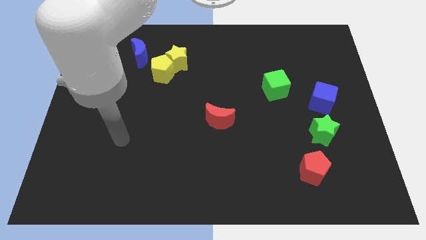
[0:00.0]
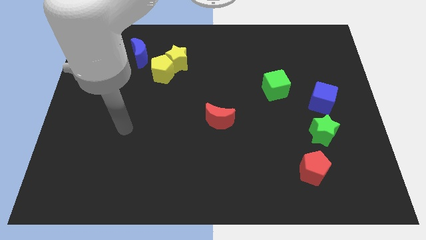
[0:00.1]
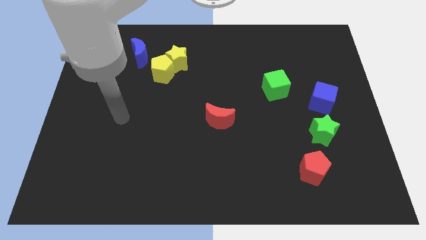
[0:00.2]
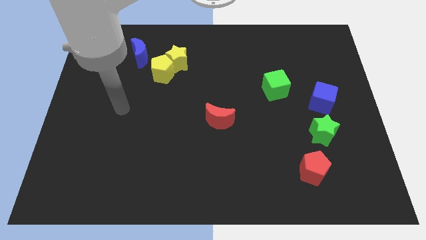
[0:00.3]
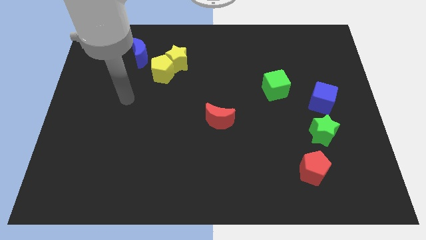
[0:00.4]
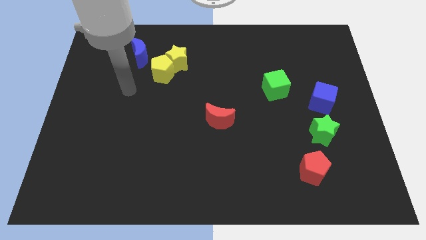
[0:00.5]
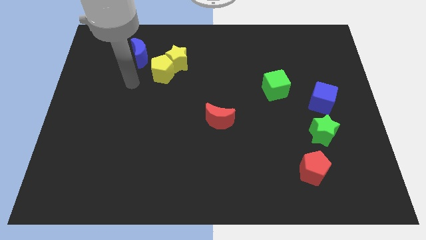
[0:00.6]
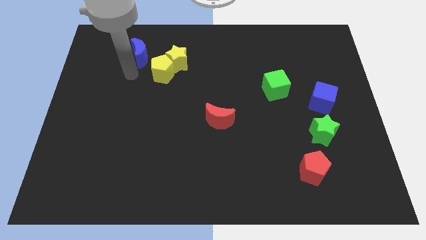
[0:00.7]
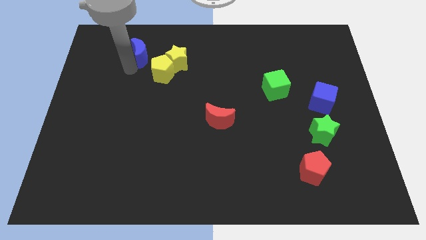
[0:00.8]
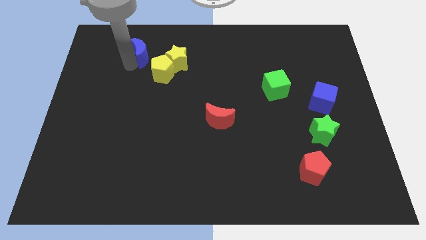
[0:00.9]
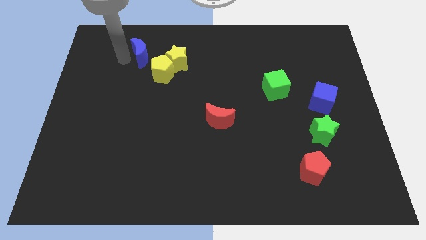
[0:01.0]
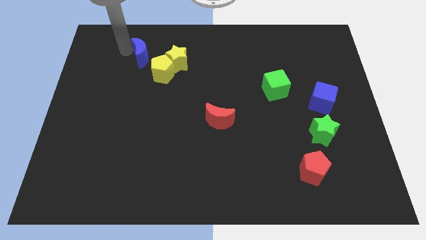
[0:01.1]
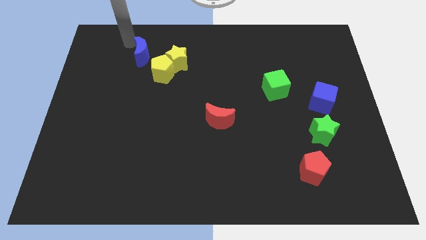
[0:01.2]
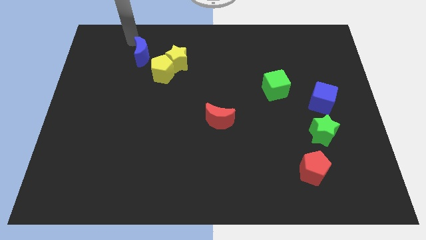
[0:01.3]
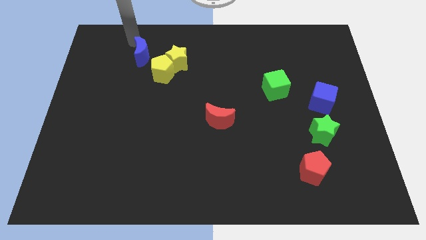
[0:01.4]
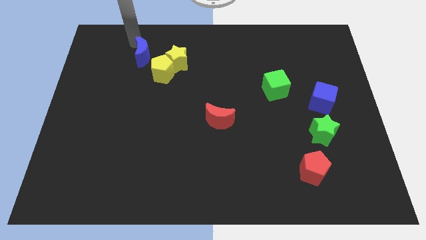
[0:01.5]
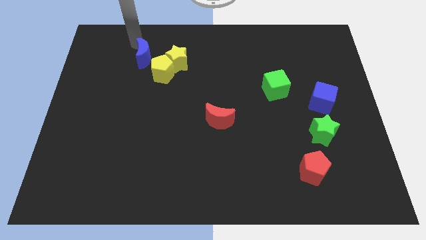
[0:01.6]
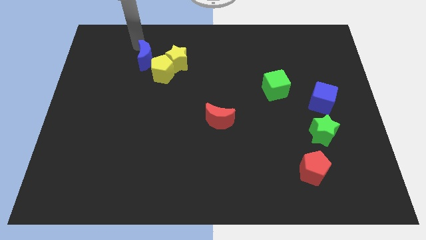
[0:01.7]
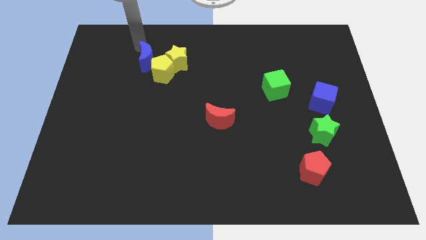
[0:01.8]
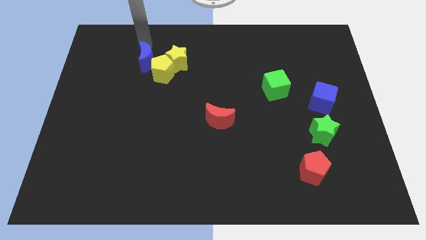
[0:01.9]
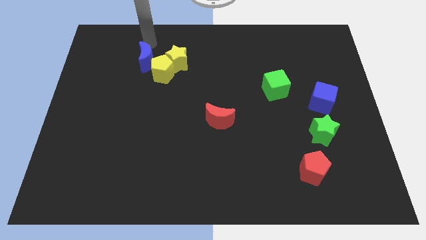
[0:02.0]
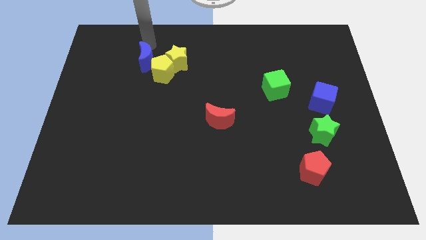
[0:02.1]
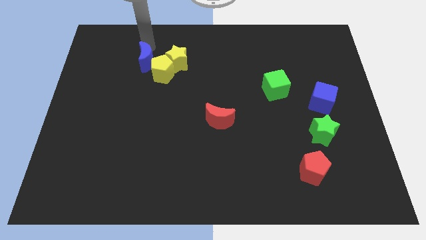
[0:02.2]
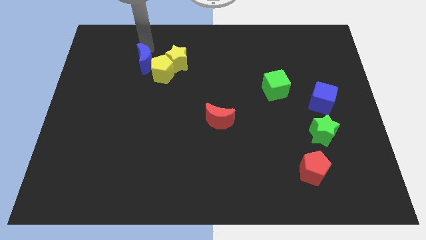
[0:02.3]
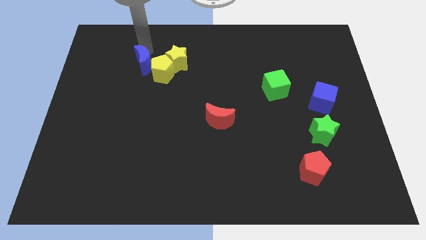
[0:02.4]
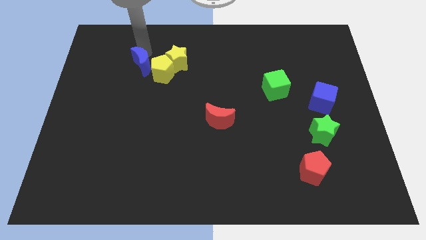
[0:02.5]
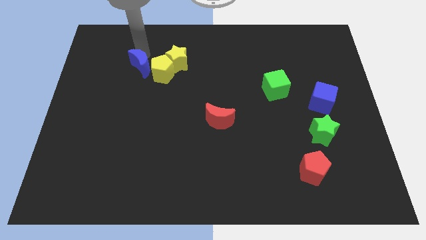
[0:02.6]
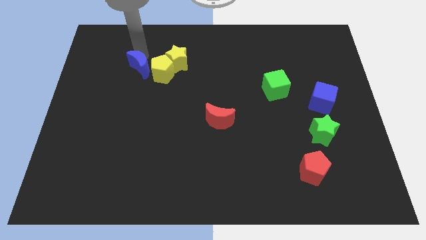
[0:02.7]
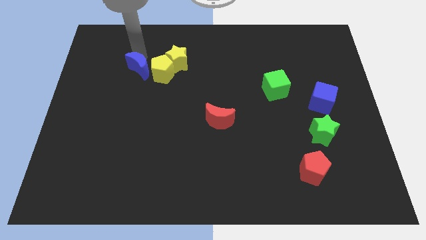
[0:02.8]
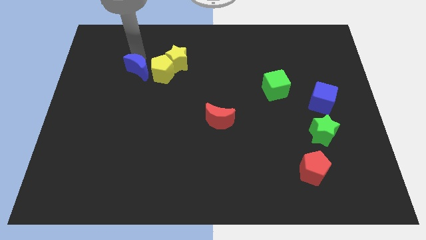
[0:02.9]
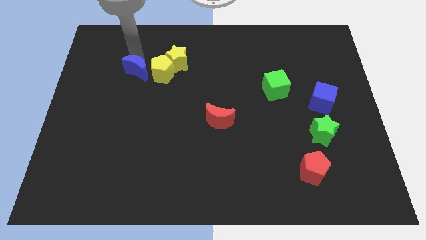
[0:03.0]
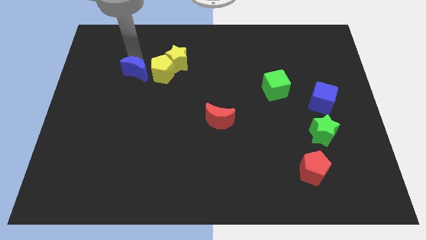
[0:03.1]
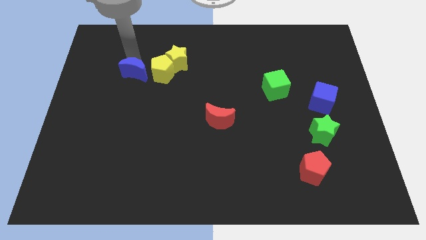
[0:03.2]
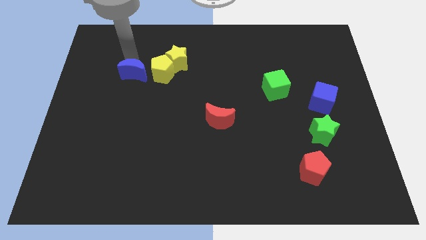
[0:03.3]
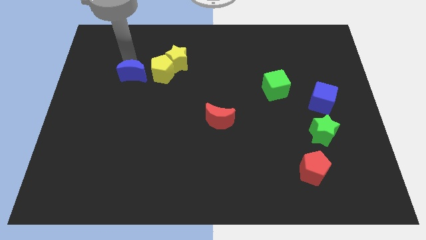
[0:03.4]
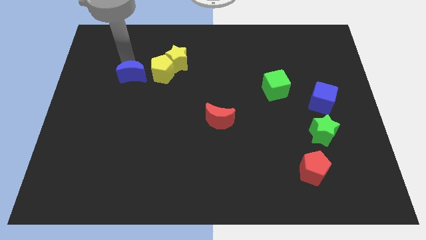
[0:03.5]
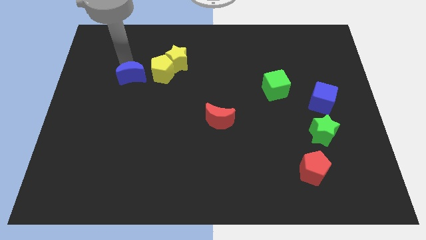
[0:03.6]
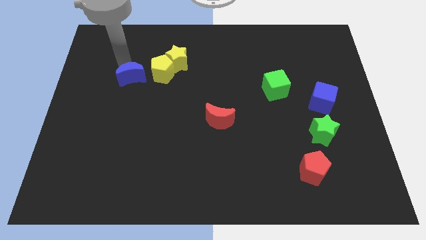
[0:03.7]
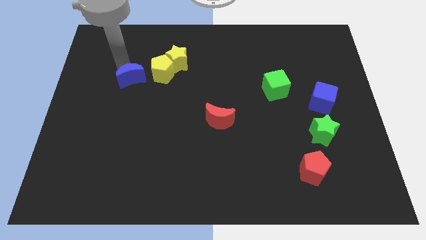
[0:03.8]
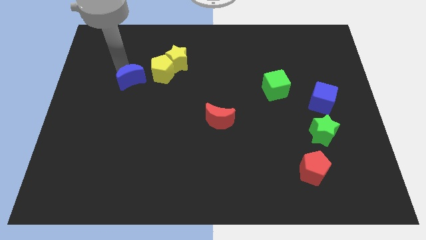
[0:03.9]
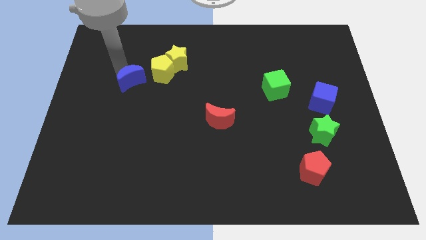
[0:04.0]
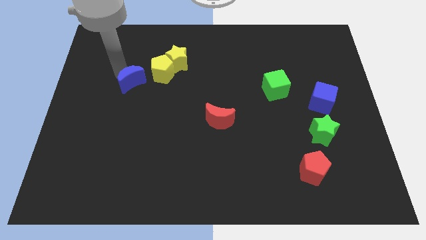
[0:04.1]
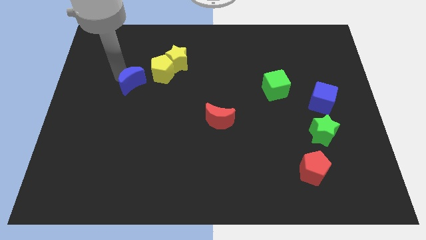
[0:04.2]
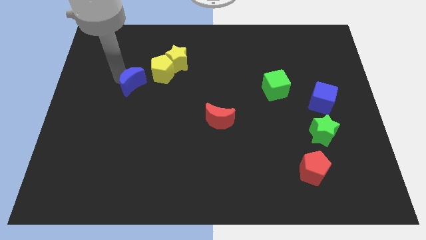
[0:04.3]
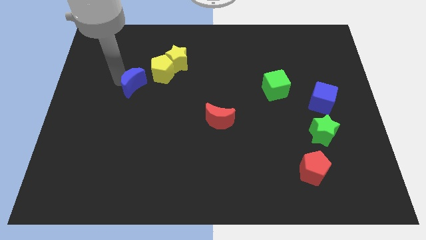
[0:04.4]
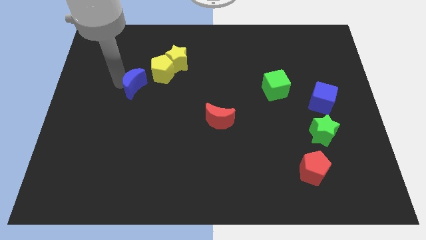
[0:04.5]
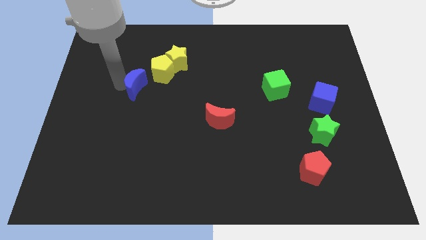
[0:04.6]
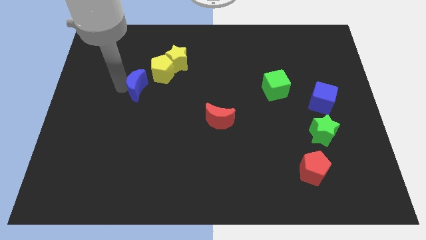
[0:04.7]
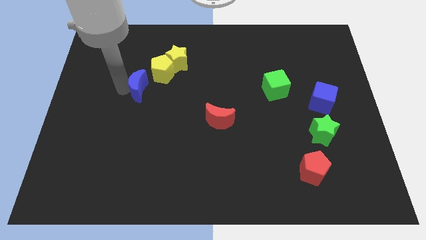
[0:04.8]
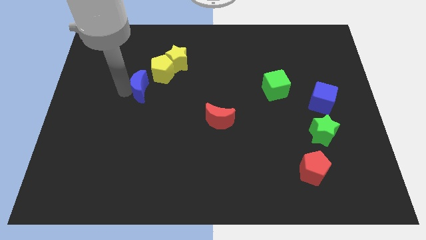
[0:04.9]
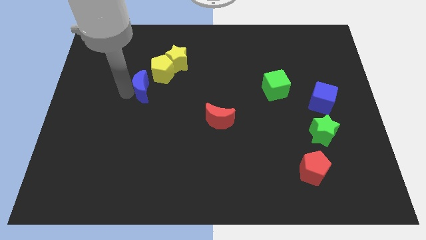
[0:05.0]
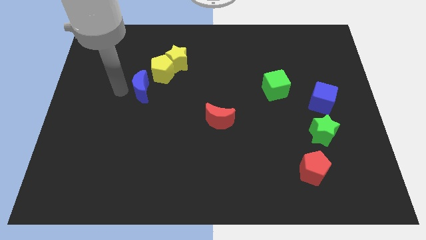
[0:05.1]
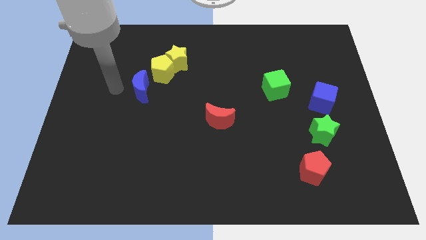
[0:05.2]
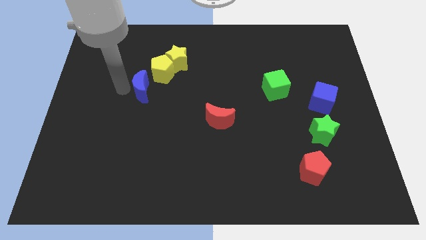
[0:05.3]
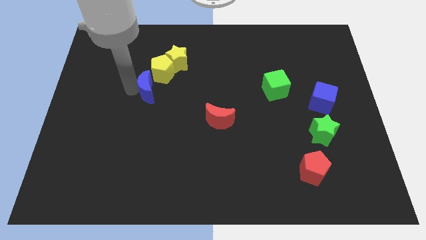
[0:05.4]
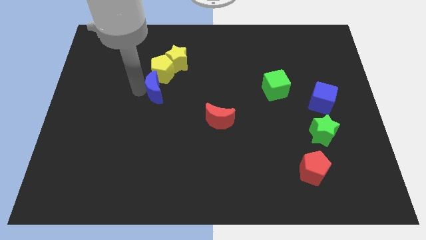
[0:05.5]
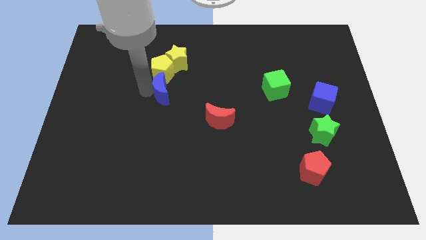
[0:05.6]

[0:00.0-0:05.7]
slide the blue moon to the bottom side of the yellow star

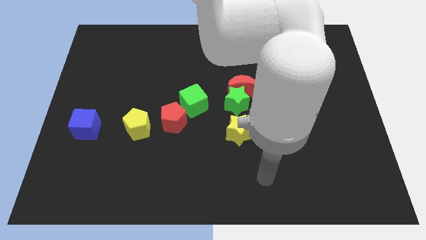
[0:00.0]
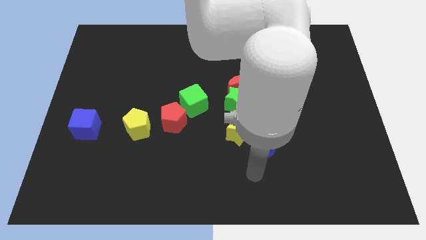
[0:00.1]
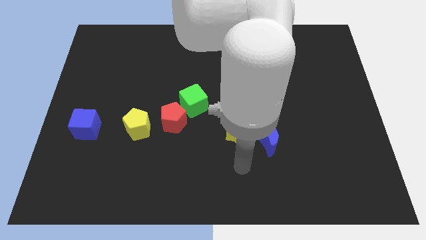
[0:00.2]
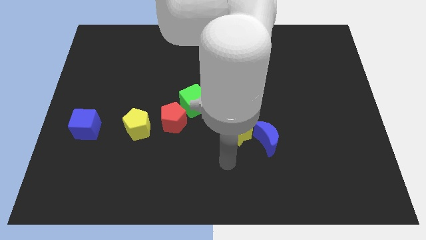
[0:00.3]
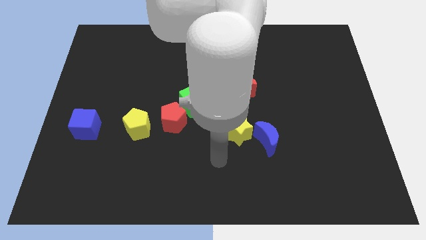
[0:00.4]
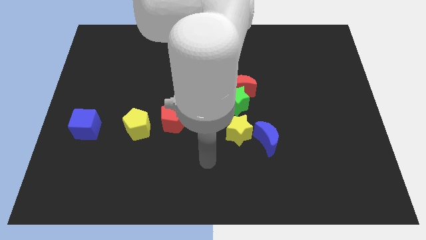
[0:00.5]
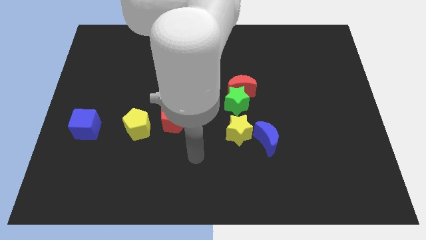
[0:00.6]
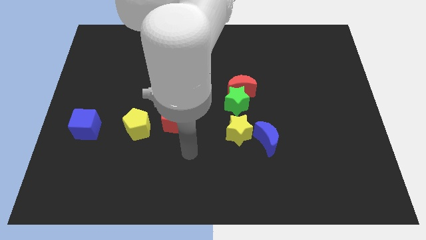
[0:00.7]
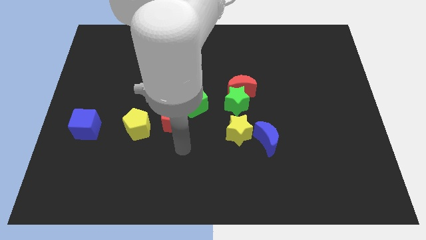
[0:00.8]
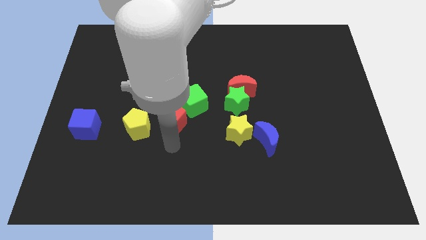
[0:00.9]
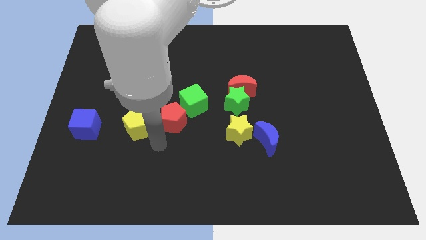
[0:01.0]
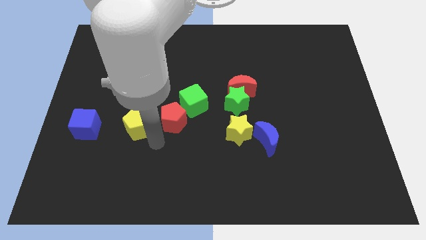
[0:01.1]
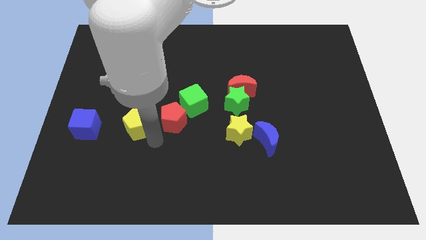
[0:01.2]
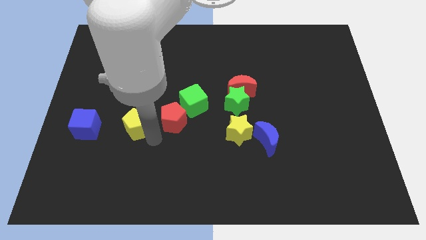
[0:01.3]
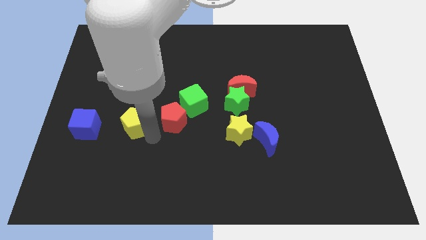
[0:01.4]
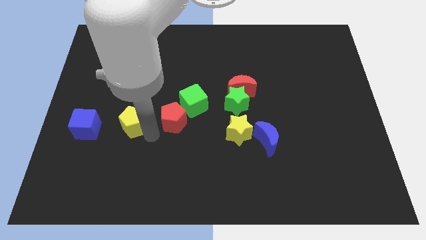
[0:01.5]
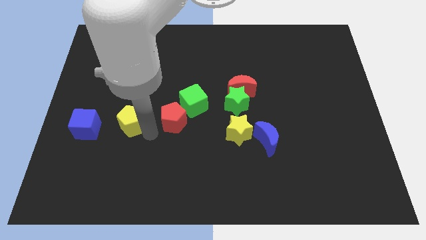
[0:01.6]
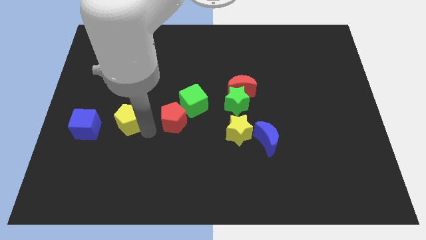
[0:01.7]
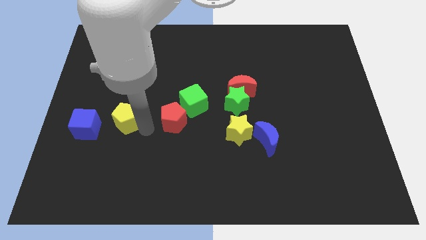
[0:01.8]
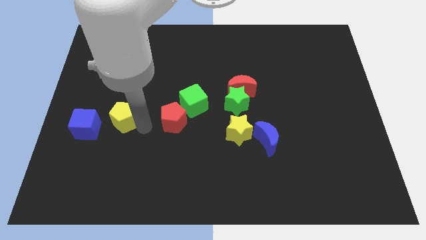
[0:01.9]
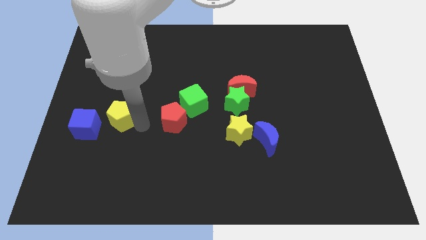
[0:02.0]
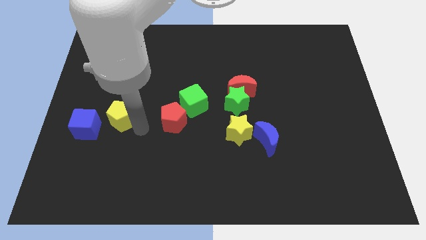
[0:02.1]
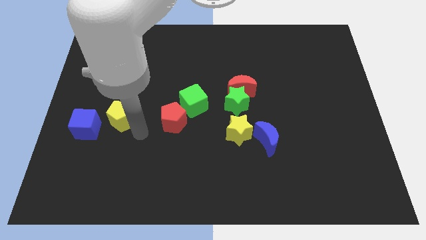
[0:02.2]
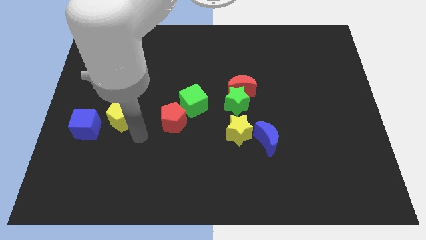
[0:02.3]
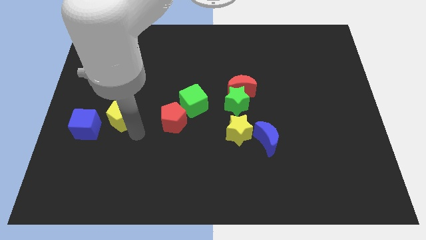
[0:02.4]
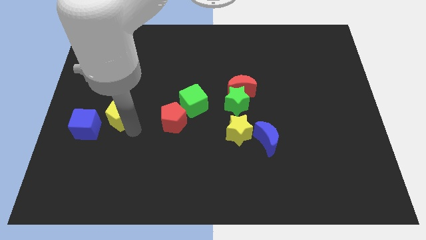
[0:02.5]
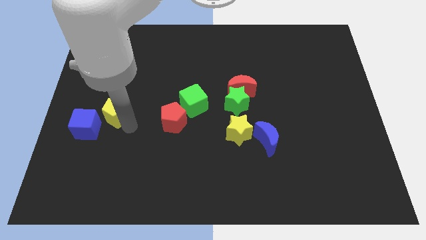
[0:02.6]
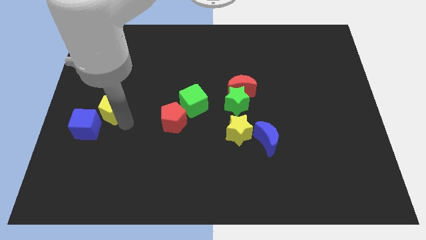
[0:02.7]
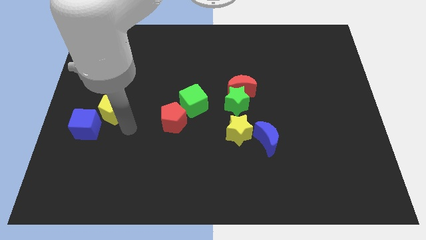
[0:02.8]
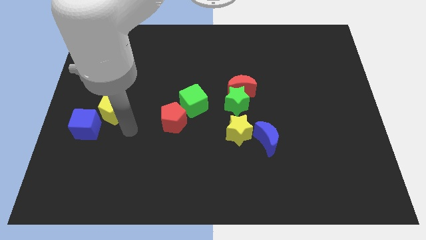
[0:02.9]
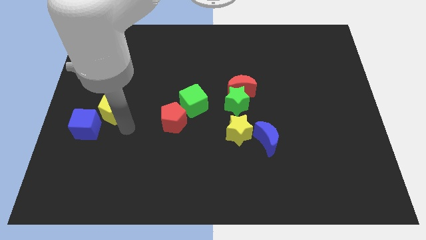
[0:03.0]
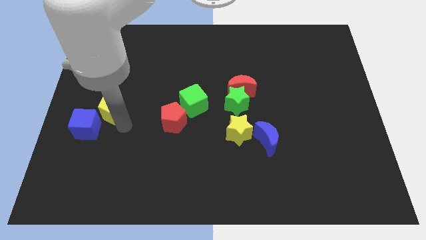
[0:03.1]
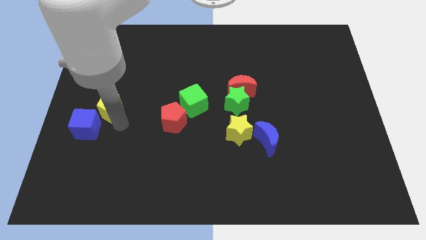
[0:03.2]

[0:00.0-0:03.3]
push the yellow pentagon to the top of the blue cube
